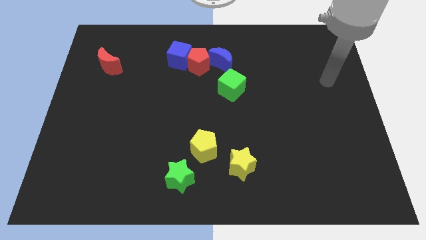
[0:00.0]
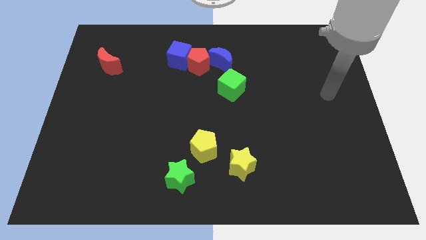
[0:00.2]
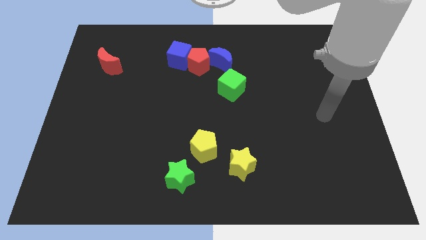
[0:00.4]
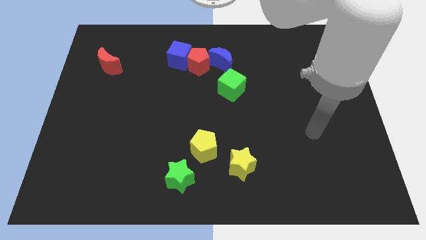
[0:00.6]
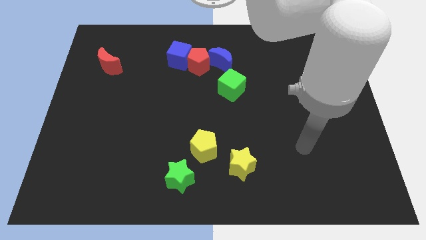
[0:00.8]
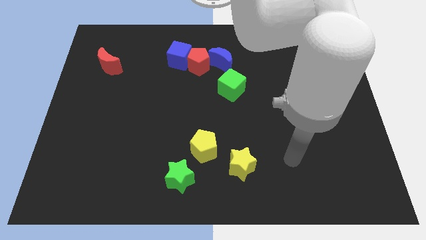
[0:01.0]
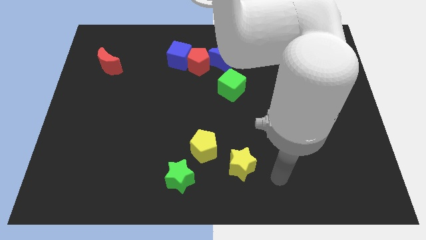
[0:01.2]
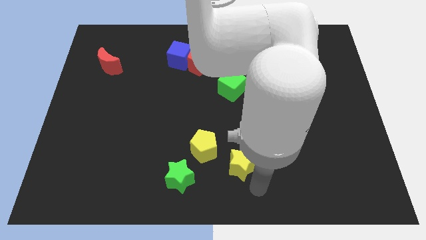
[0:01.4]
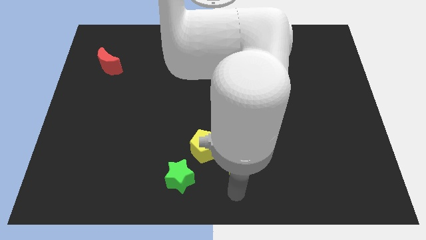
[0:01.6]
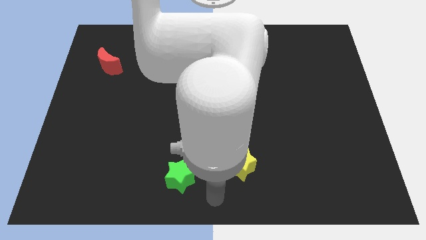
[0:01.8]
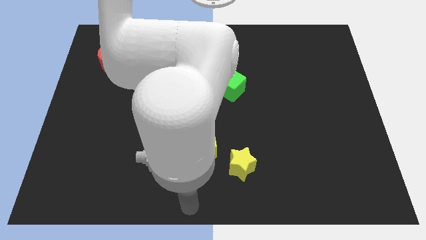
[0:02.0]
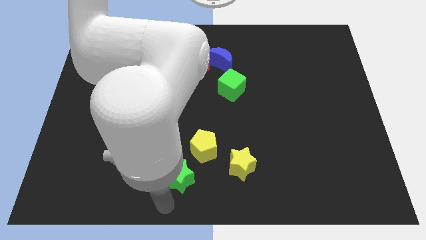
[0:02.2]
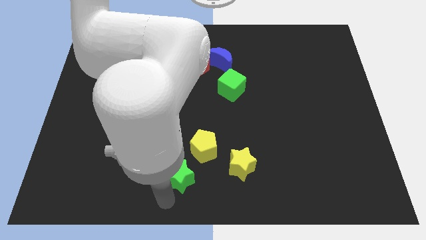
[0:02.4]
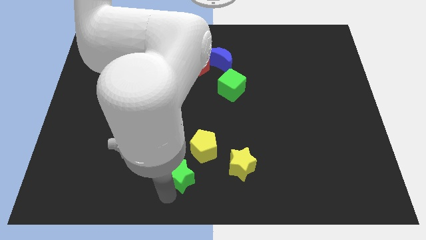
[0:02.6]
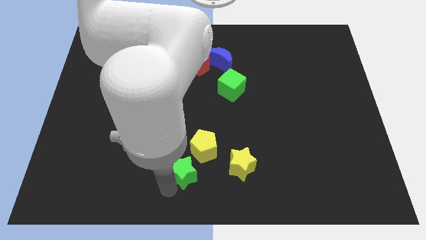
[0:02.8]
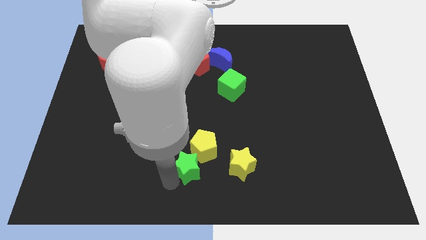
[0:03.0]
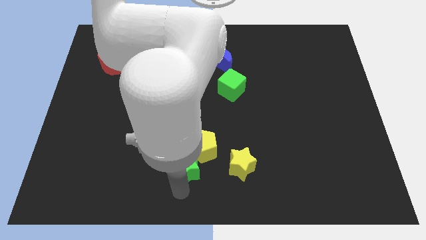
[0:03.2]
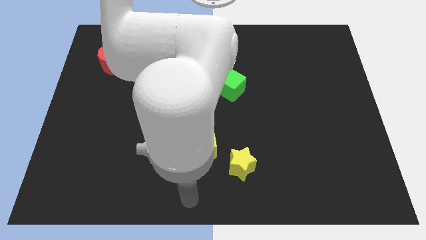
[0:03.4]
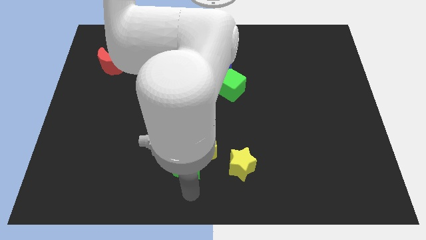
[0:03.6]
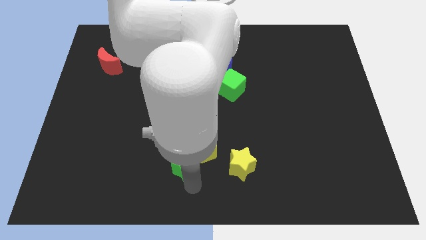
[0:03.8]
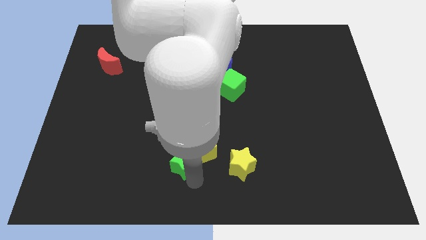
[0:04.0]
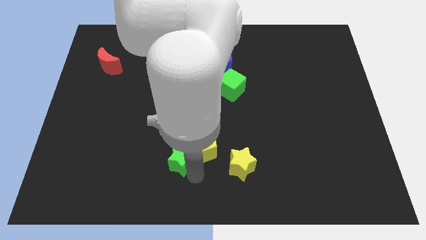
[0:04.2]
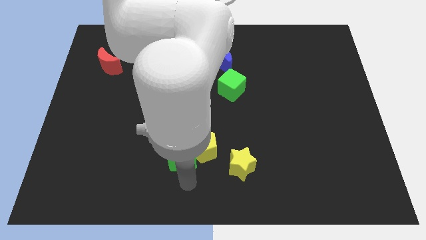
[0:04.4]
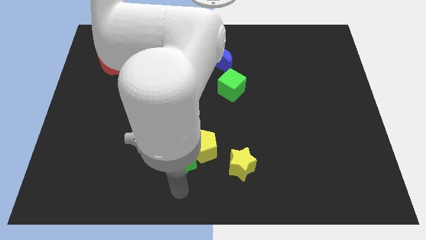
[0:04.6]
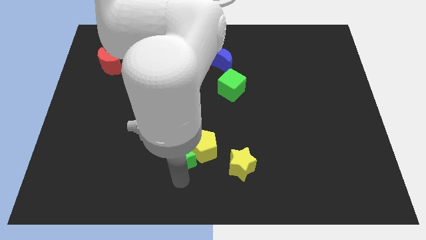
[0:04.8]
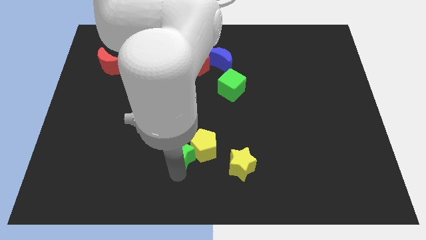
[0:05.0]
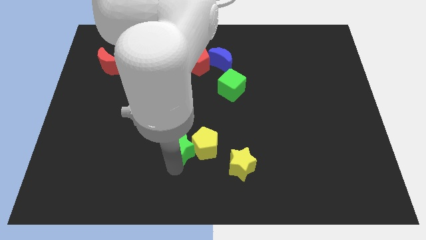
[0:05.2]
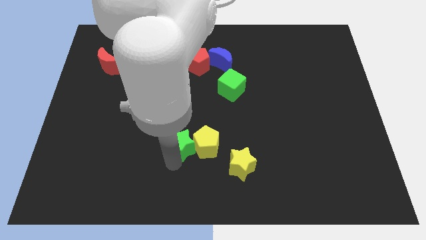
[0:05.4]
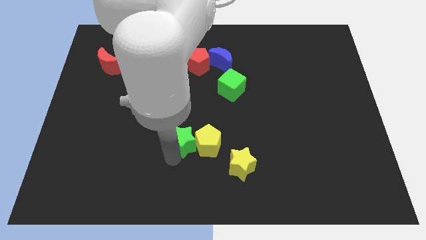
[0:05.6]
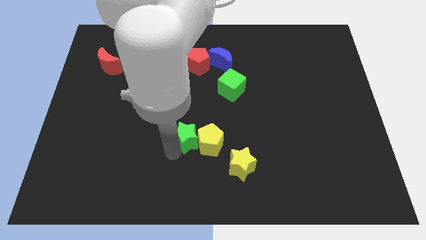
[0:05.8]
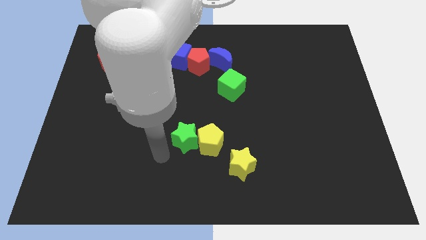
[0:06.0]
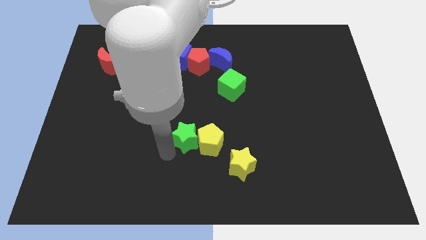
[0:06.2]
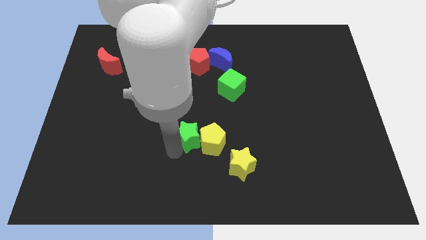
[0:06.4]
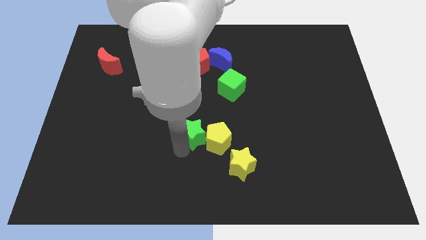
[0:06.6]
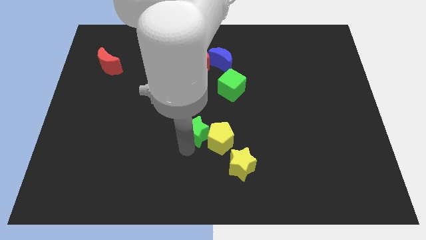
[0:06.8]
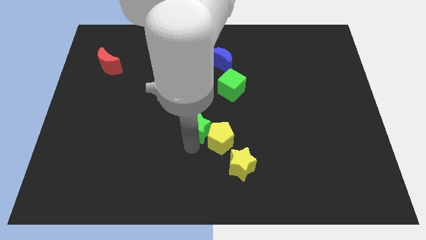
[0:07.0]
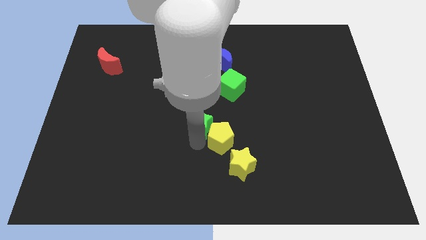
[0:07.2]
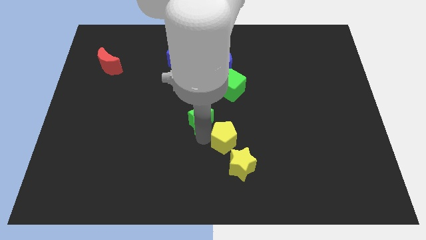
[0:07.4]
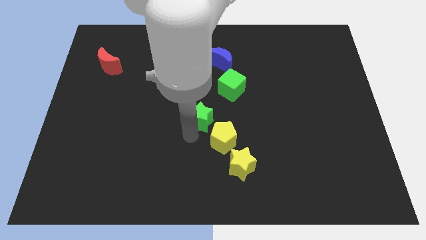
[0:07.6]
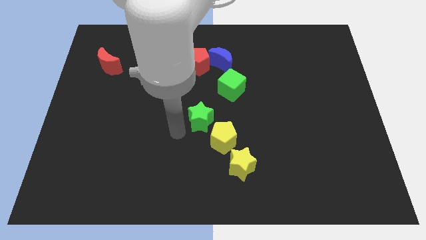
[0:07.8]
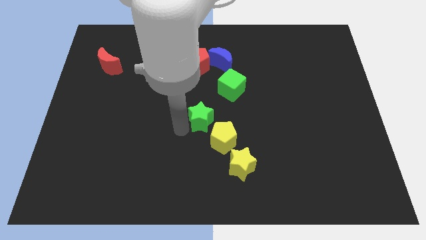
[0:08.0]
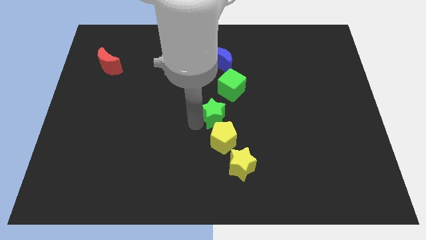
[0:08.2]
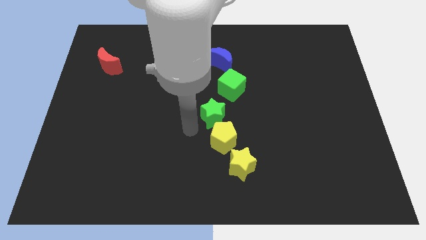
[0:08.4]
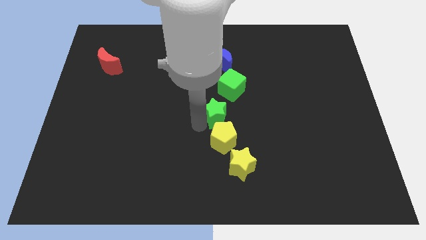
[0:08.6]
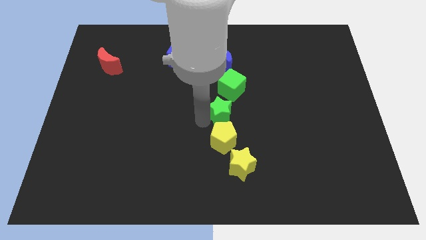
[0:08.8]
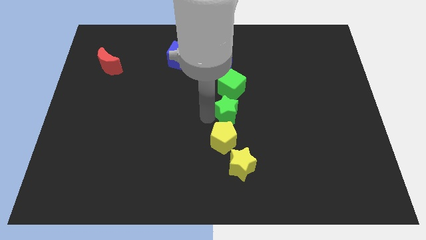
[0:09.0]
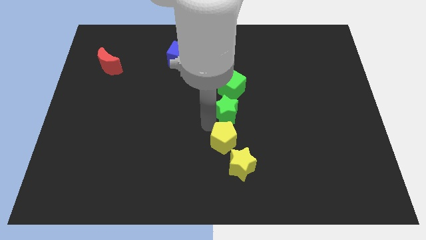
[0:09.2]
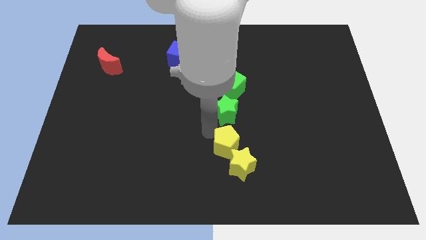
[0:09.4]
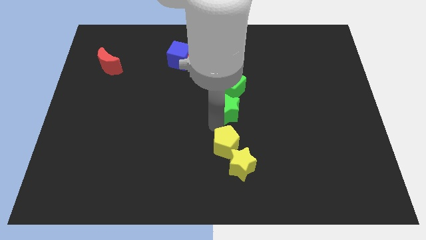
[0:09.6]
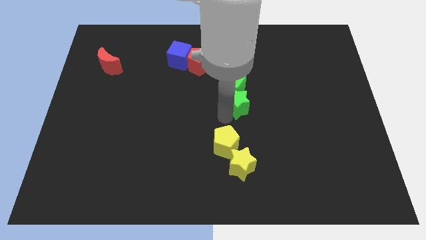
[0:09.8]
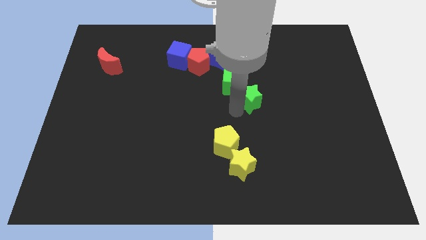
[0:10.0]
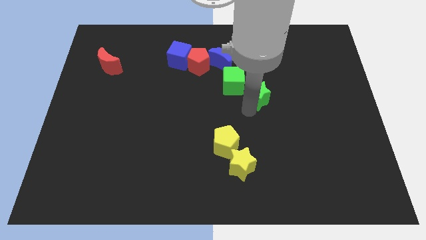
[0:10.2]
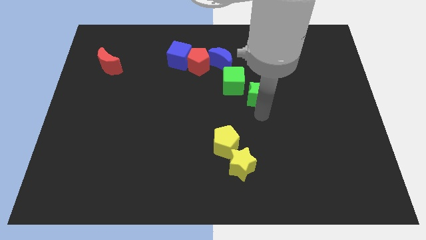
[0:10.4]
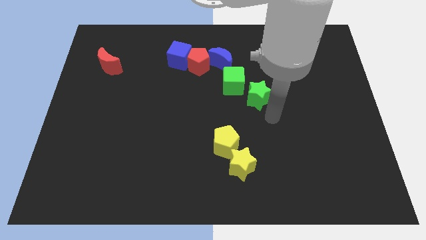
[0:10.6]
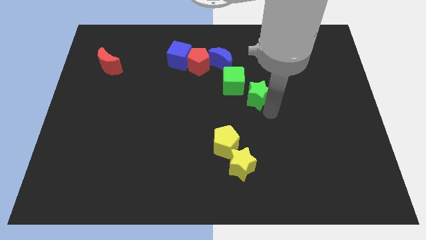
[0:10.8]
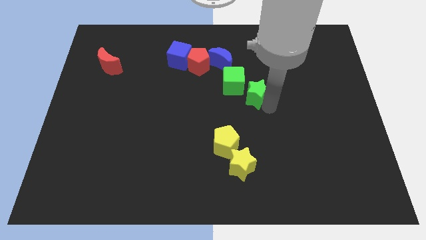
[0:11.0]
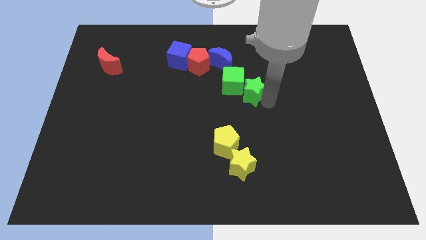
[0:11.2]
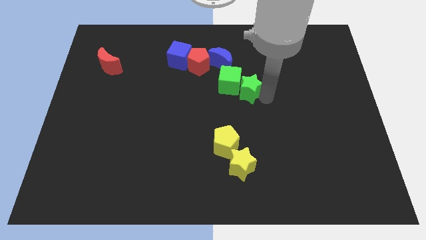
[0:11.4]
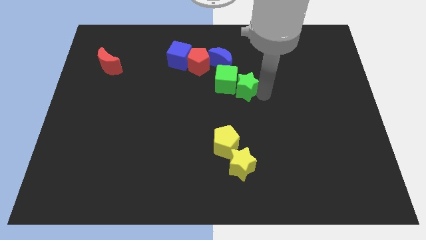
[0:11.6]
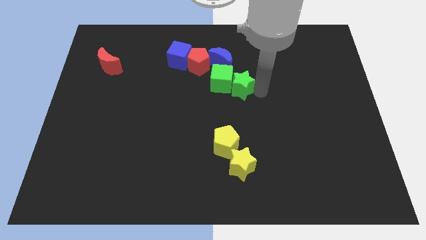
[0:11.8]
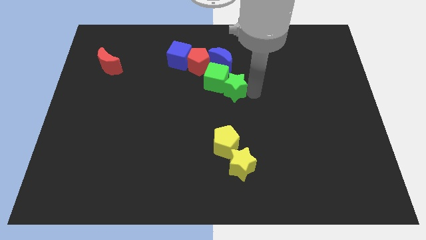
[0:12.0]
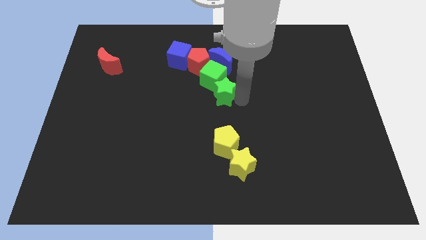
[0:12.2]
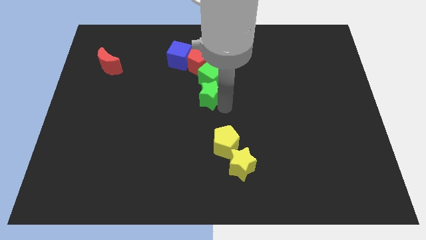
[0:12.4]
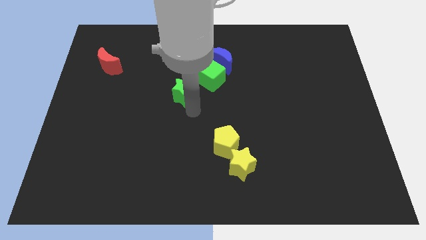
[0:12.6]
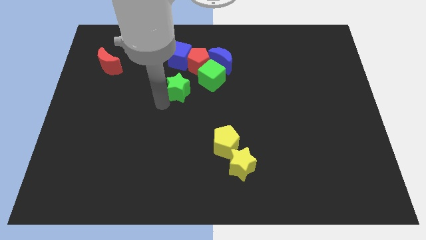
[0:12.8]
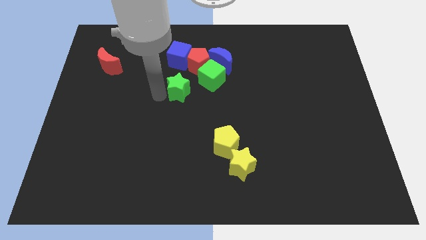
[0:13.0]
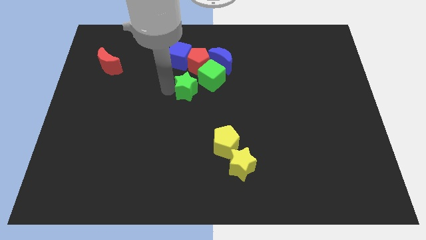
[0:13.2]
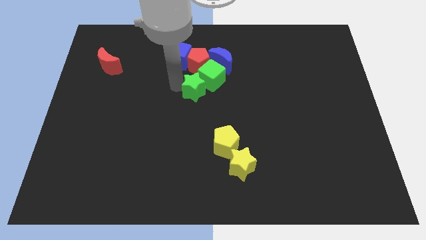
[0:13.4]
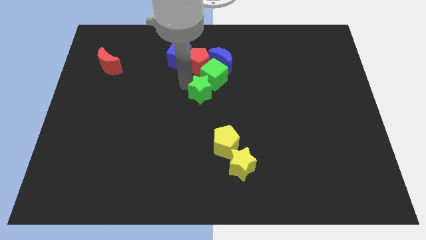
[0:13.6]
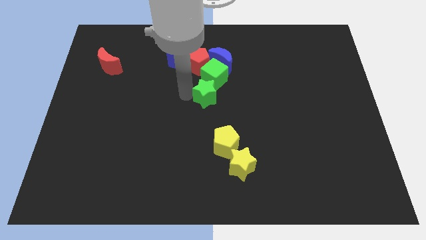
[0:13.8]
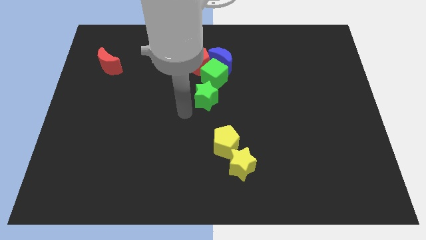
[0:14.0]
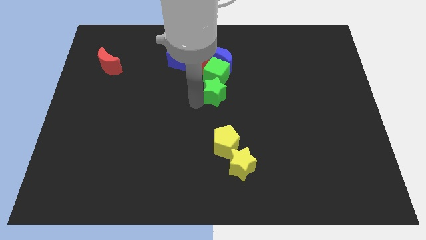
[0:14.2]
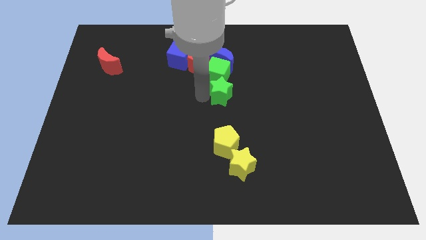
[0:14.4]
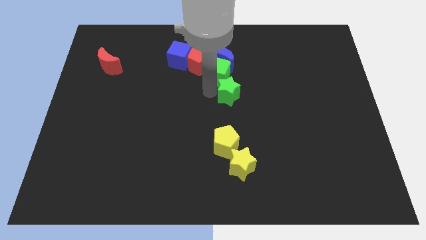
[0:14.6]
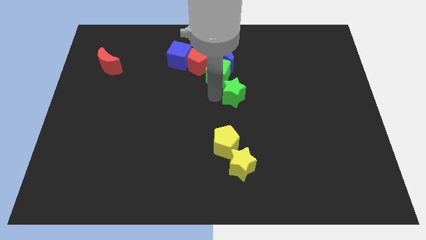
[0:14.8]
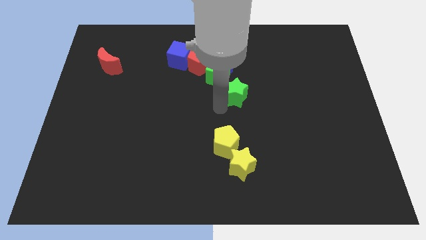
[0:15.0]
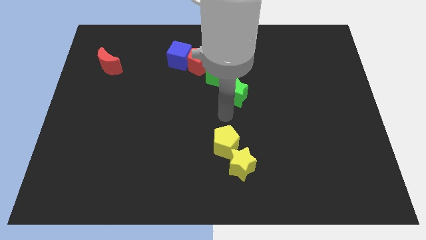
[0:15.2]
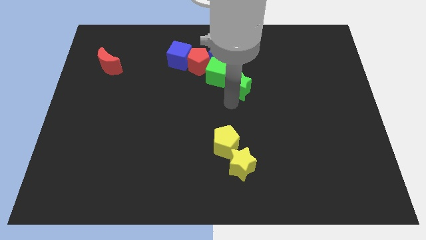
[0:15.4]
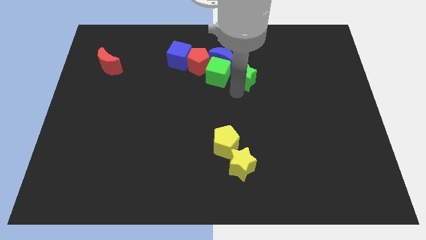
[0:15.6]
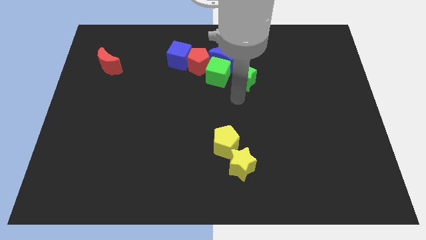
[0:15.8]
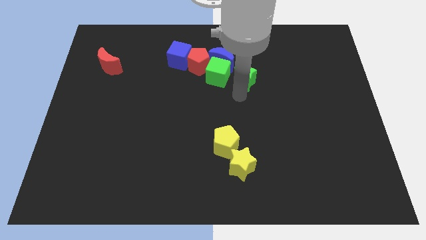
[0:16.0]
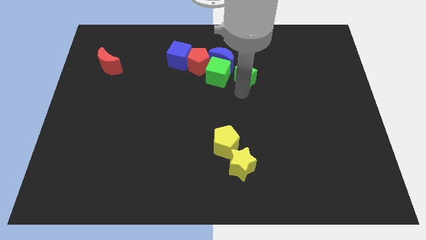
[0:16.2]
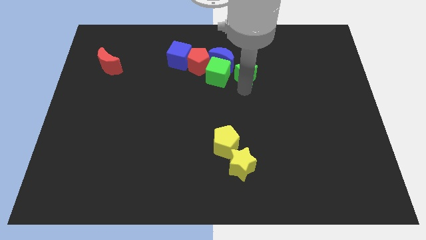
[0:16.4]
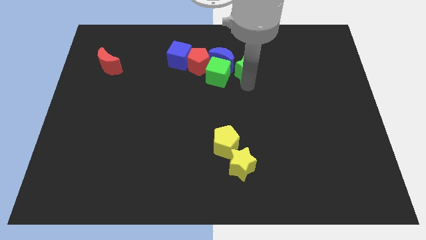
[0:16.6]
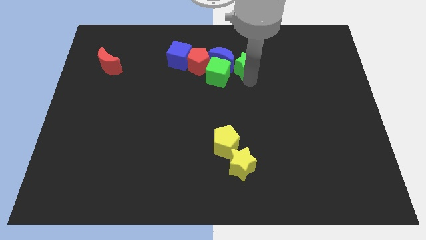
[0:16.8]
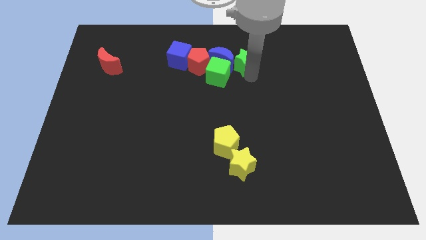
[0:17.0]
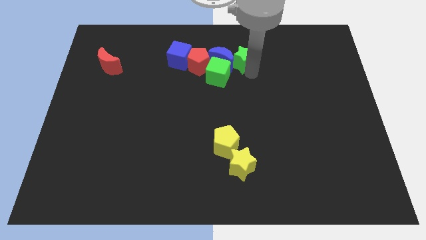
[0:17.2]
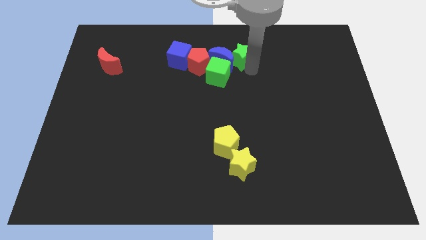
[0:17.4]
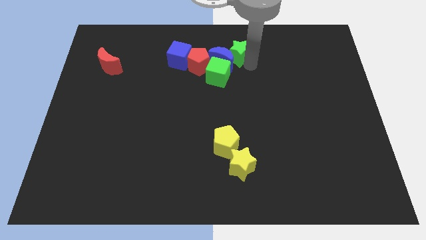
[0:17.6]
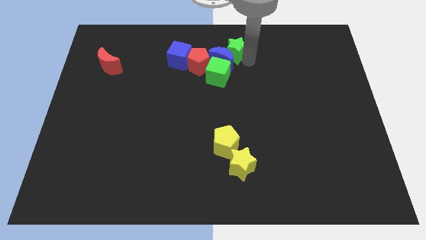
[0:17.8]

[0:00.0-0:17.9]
slide the green star to the top side
